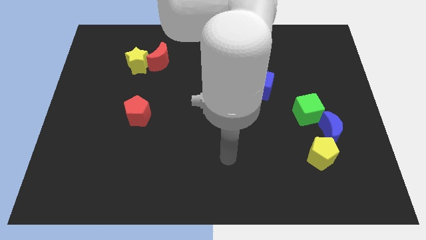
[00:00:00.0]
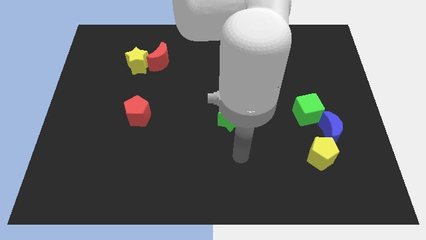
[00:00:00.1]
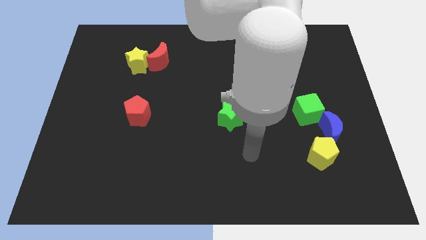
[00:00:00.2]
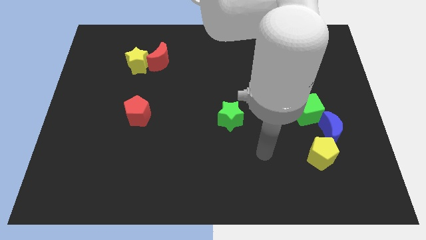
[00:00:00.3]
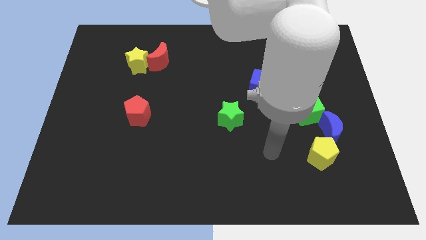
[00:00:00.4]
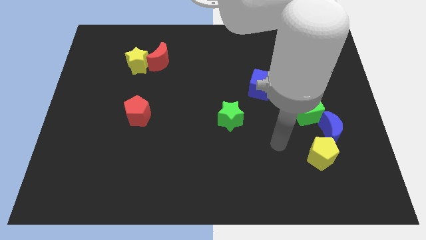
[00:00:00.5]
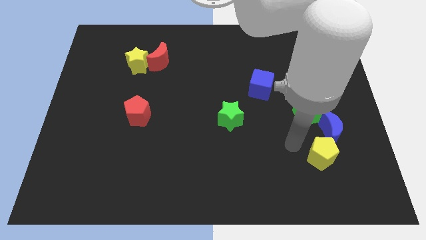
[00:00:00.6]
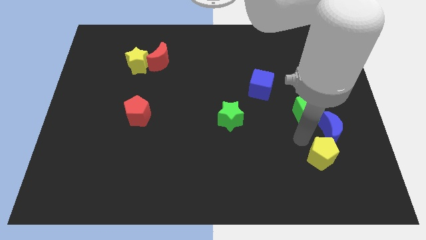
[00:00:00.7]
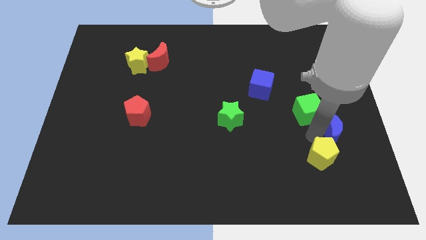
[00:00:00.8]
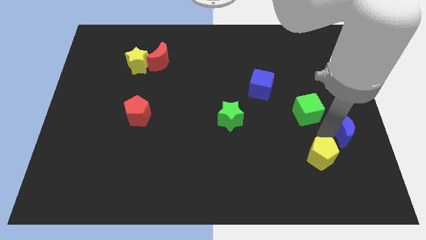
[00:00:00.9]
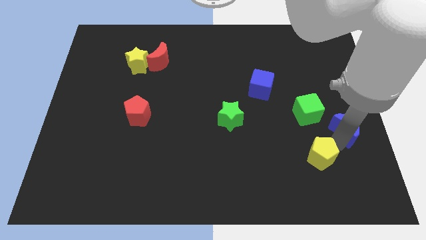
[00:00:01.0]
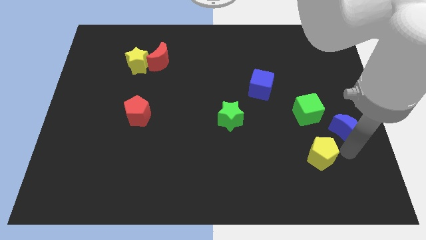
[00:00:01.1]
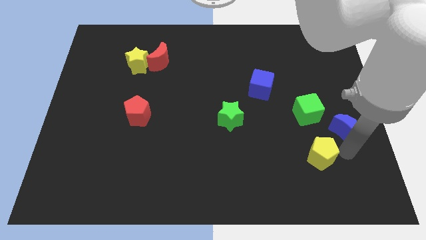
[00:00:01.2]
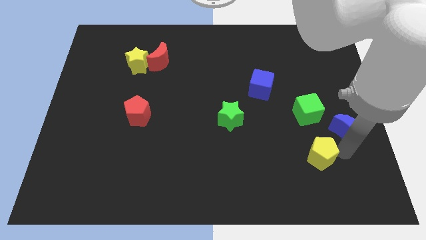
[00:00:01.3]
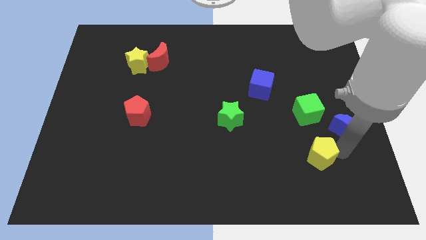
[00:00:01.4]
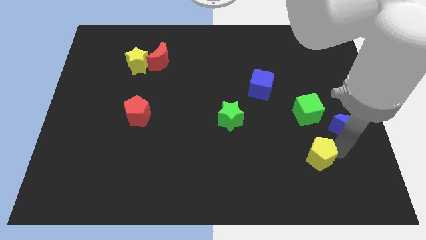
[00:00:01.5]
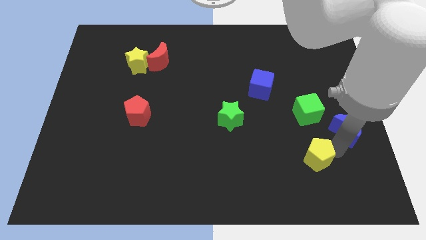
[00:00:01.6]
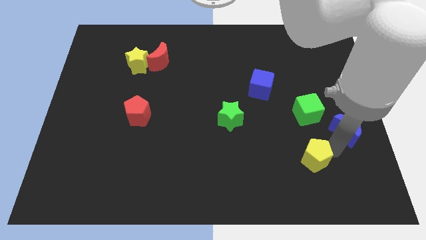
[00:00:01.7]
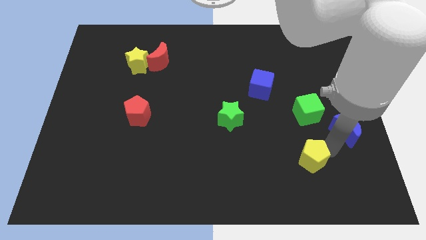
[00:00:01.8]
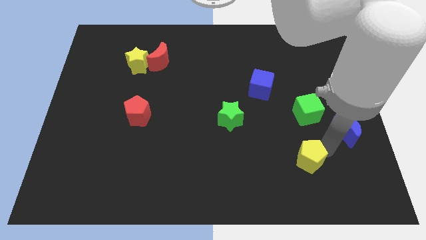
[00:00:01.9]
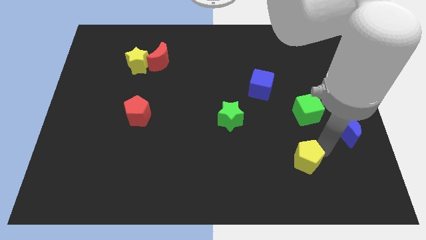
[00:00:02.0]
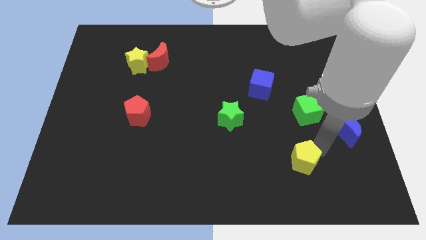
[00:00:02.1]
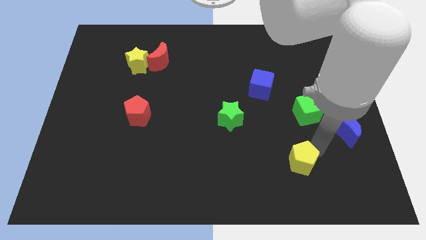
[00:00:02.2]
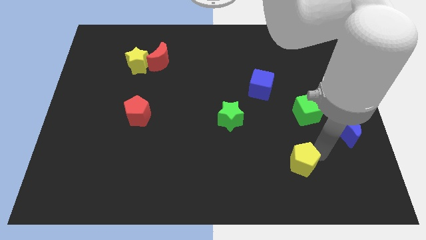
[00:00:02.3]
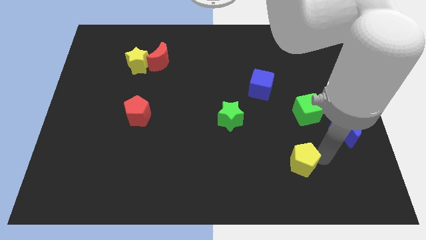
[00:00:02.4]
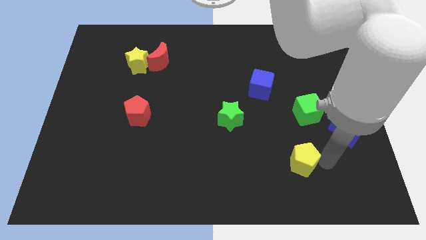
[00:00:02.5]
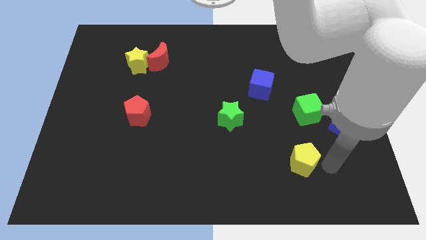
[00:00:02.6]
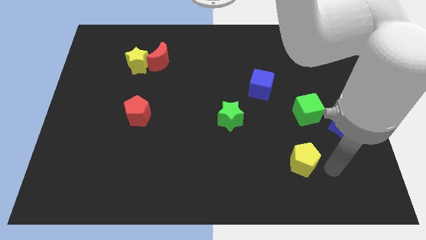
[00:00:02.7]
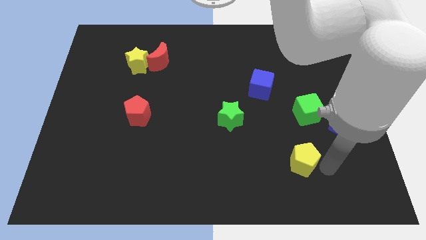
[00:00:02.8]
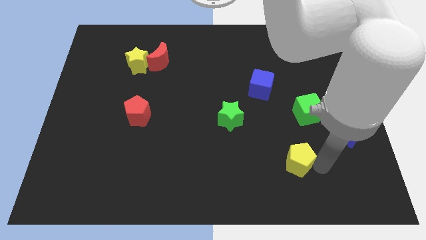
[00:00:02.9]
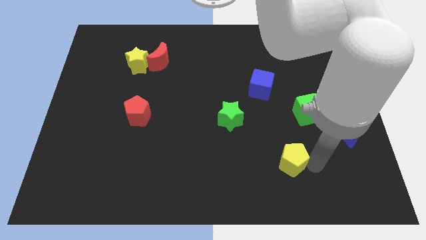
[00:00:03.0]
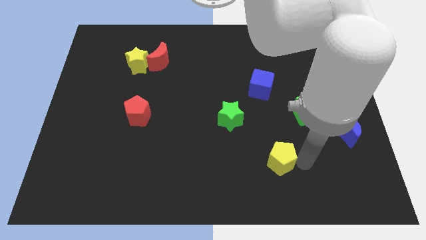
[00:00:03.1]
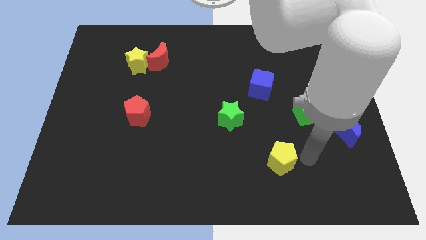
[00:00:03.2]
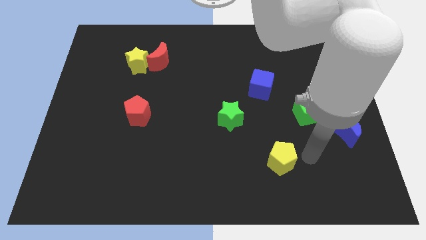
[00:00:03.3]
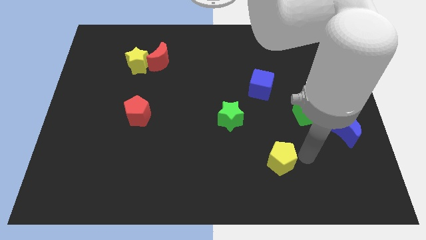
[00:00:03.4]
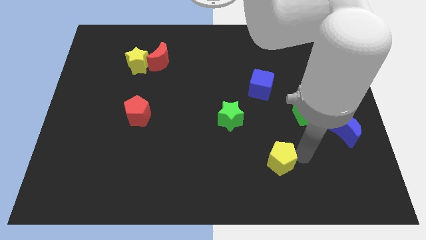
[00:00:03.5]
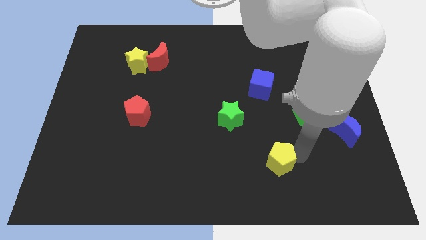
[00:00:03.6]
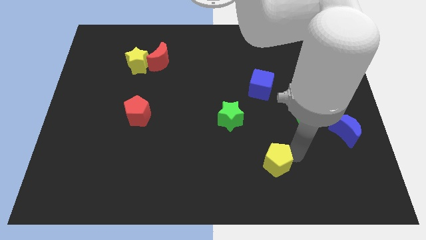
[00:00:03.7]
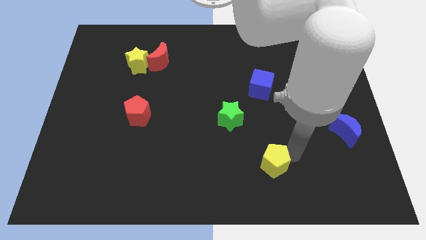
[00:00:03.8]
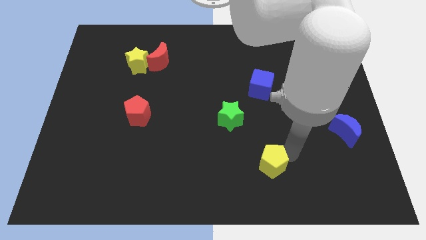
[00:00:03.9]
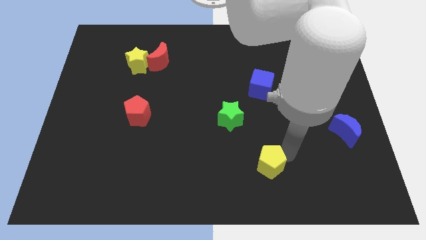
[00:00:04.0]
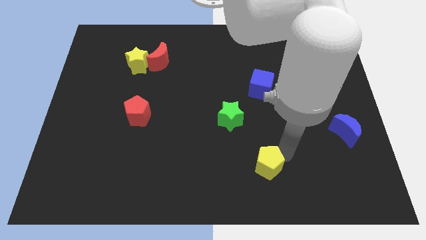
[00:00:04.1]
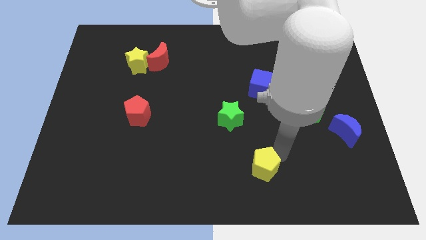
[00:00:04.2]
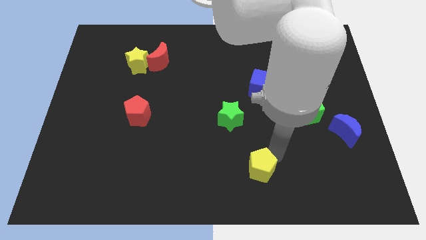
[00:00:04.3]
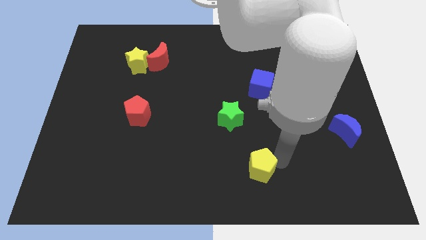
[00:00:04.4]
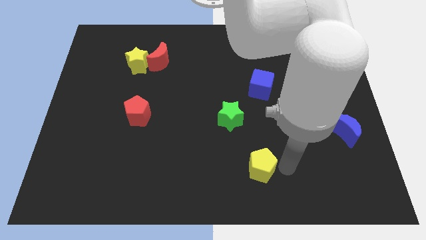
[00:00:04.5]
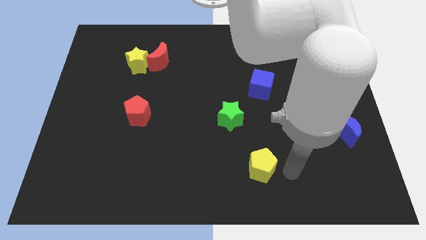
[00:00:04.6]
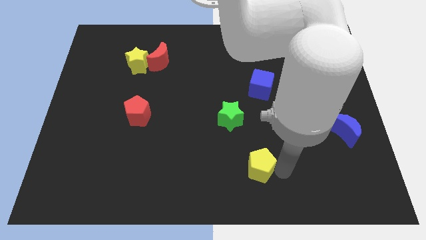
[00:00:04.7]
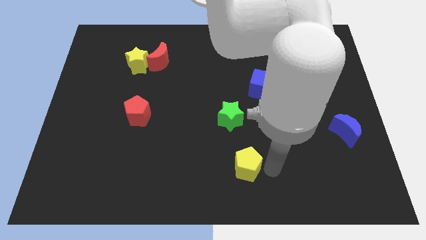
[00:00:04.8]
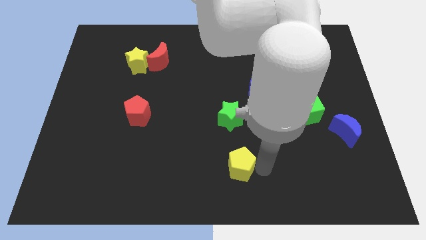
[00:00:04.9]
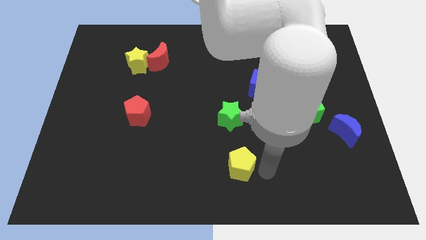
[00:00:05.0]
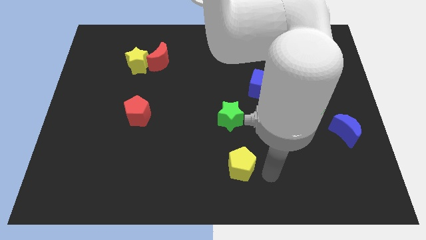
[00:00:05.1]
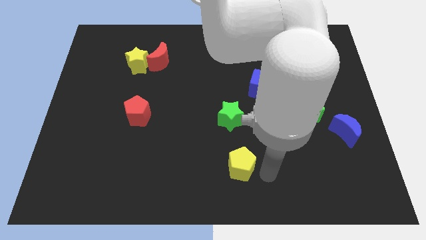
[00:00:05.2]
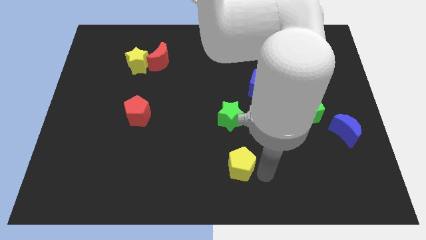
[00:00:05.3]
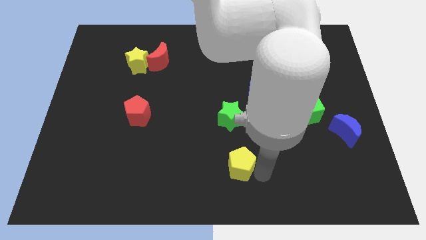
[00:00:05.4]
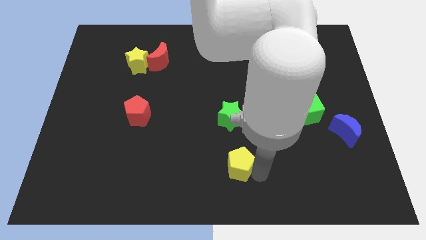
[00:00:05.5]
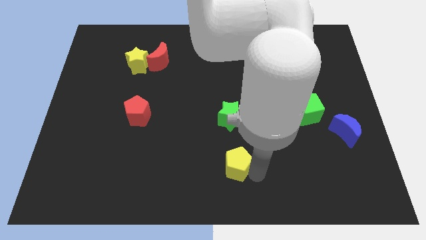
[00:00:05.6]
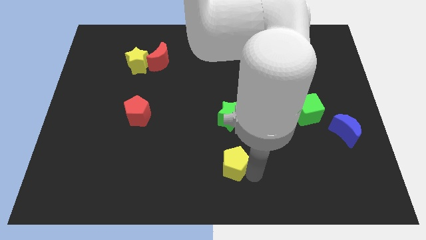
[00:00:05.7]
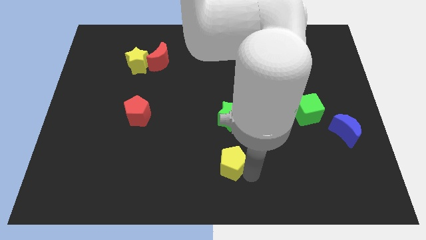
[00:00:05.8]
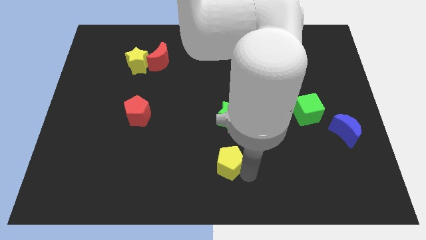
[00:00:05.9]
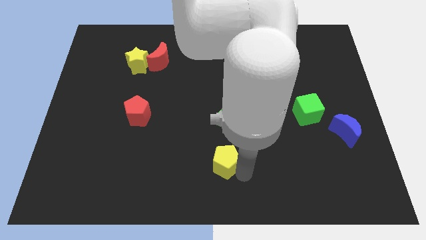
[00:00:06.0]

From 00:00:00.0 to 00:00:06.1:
push the yellow pentagon to the left

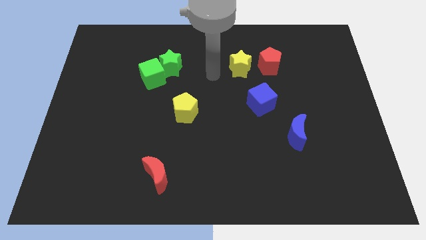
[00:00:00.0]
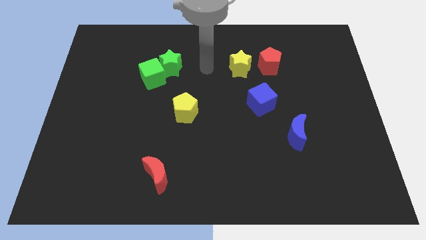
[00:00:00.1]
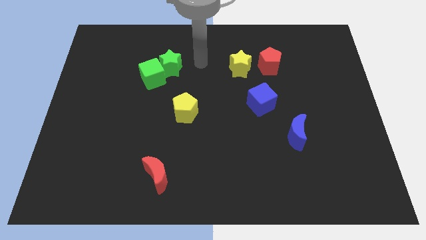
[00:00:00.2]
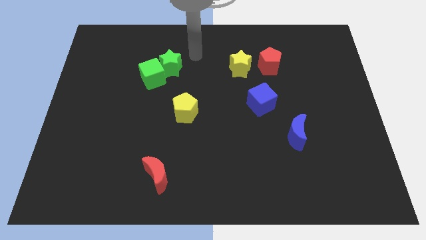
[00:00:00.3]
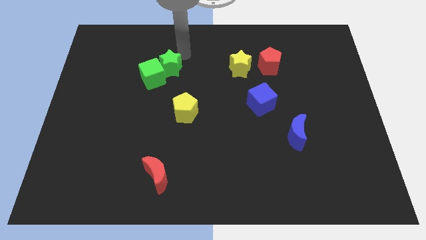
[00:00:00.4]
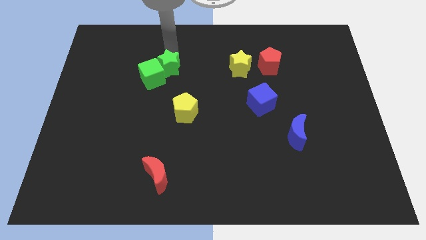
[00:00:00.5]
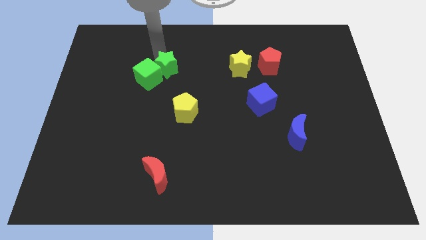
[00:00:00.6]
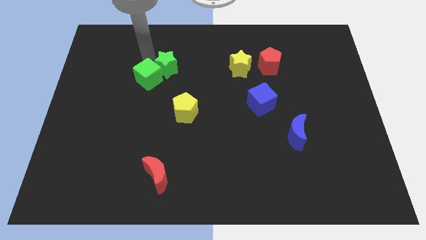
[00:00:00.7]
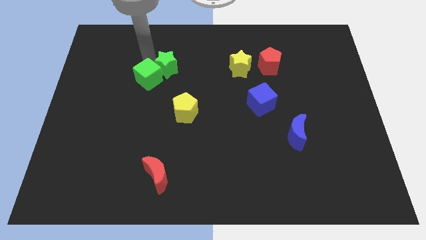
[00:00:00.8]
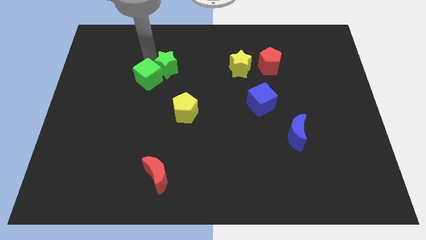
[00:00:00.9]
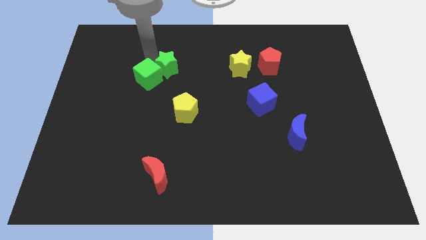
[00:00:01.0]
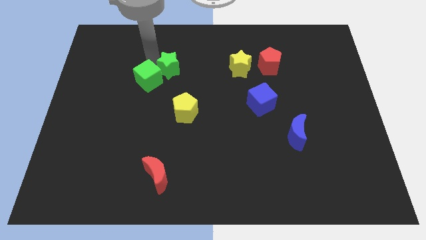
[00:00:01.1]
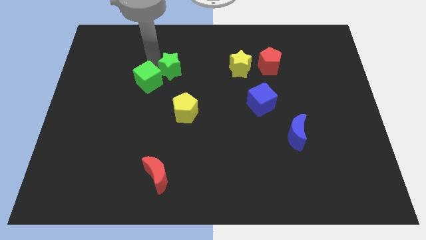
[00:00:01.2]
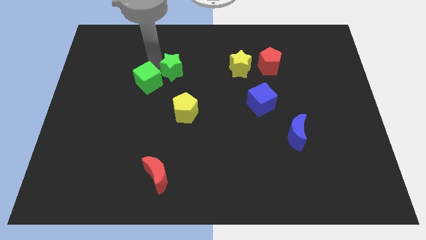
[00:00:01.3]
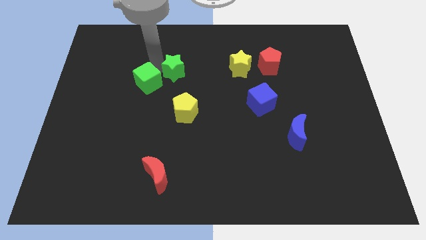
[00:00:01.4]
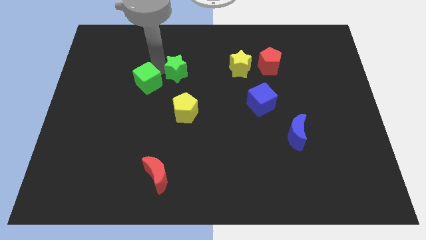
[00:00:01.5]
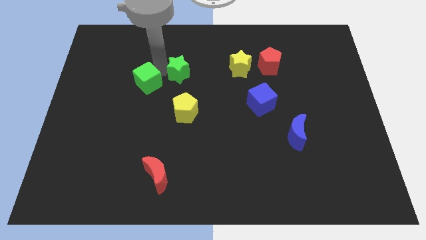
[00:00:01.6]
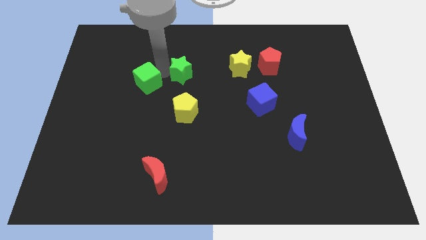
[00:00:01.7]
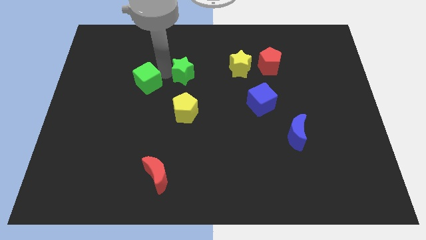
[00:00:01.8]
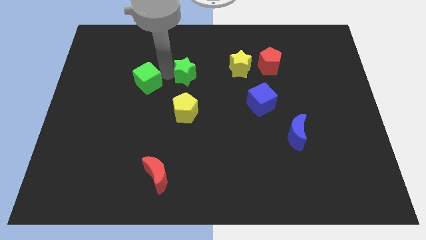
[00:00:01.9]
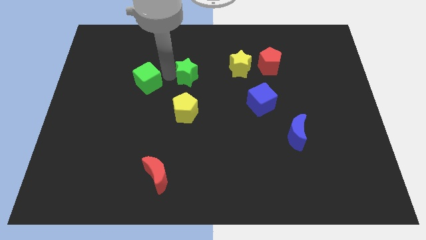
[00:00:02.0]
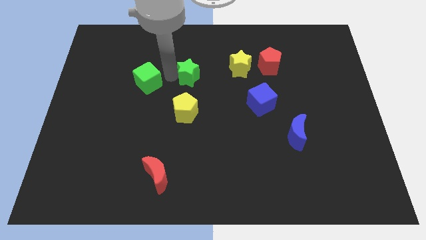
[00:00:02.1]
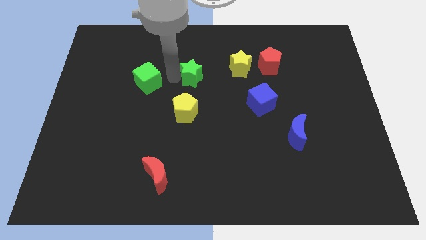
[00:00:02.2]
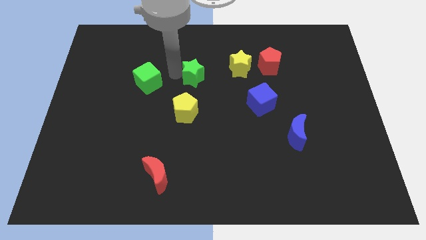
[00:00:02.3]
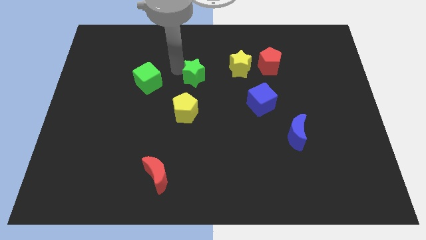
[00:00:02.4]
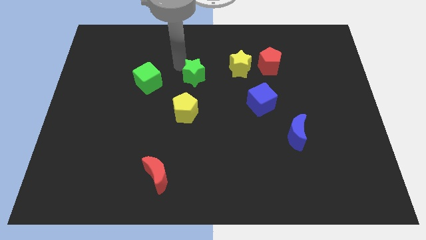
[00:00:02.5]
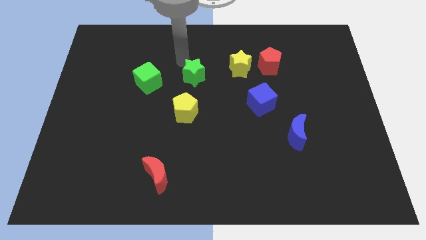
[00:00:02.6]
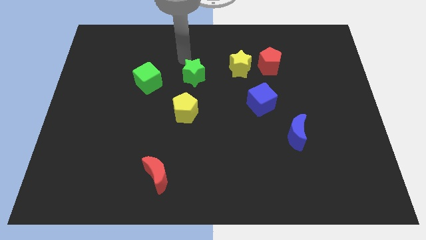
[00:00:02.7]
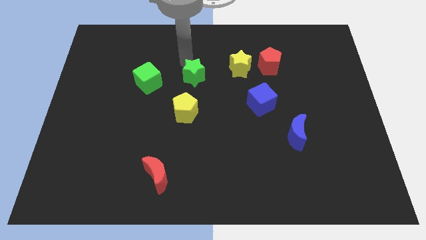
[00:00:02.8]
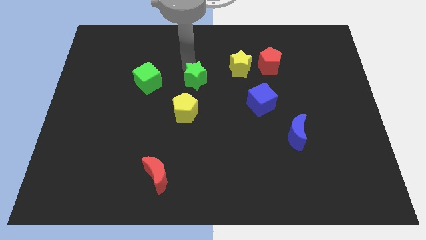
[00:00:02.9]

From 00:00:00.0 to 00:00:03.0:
slide the green star a little bit downwards and right diagonally
